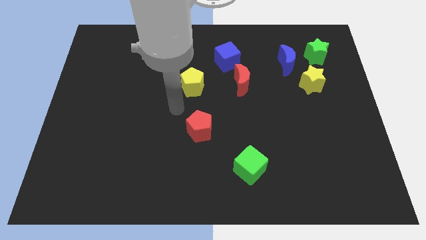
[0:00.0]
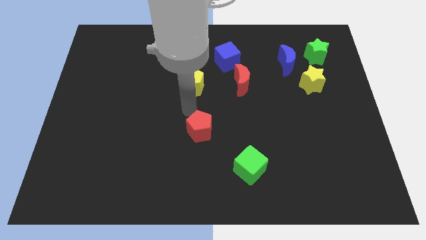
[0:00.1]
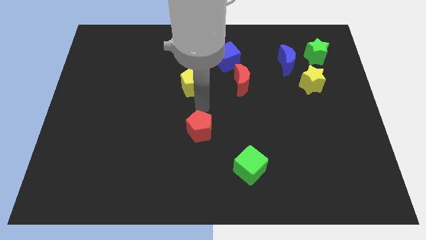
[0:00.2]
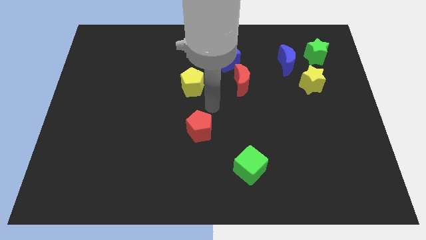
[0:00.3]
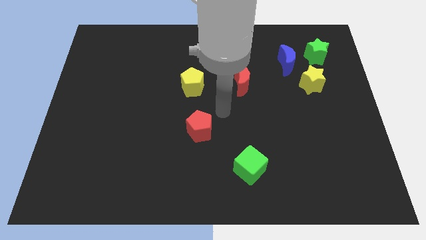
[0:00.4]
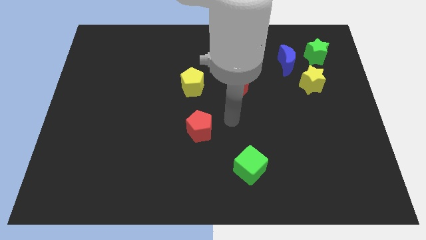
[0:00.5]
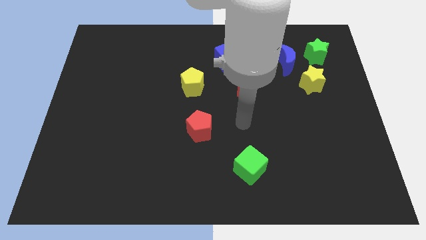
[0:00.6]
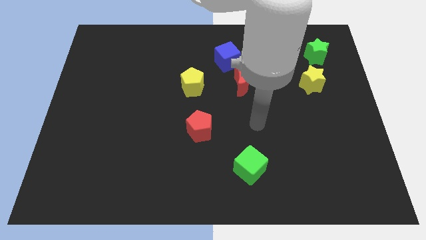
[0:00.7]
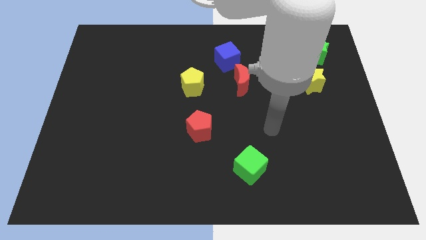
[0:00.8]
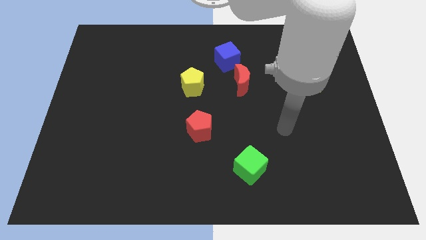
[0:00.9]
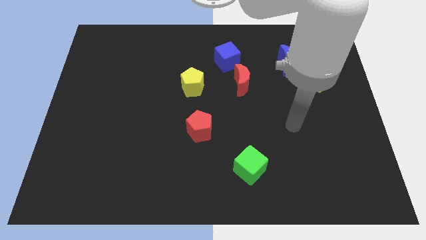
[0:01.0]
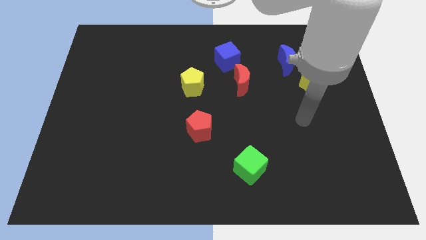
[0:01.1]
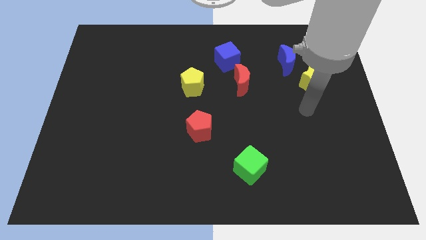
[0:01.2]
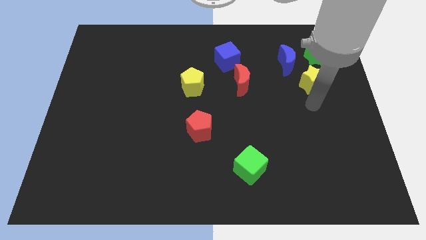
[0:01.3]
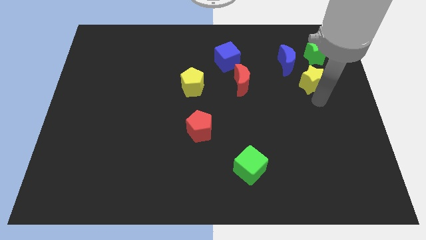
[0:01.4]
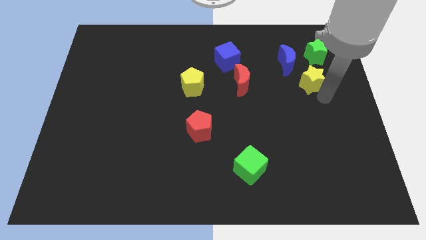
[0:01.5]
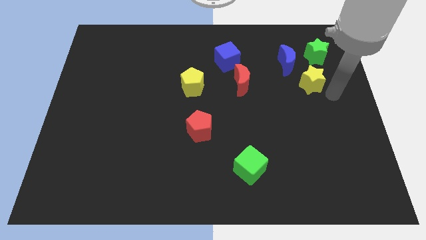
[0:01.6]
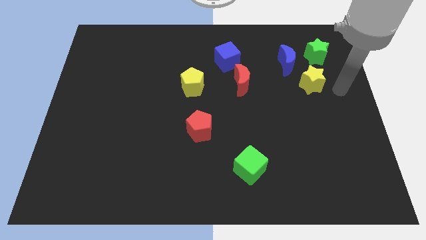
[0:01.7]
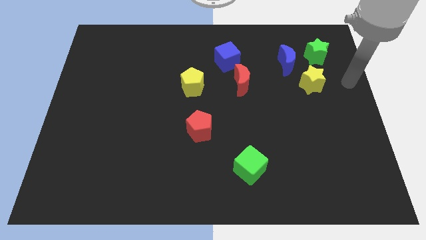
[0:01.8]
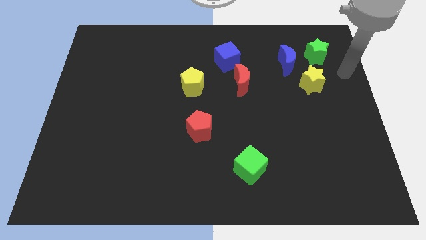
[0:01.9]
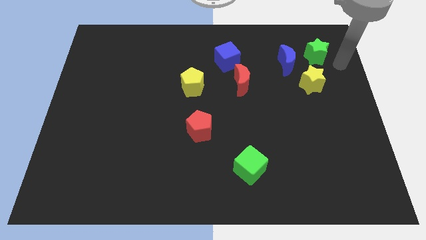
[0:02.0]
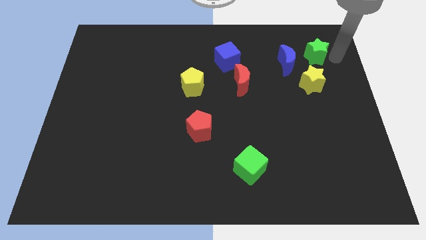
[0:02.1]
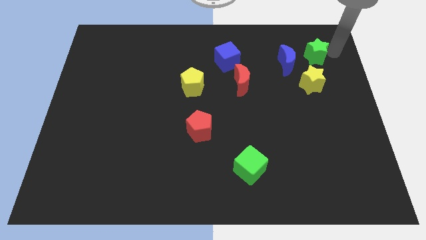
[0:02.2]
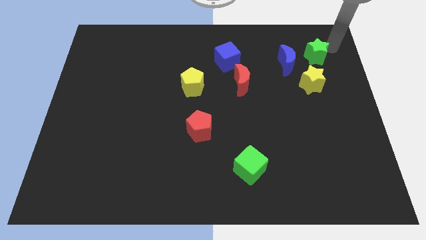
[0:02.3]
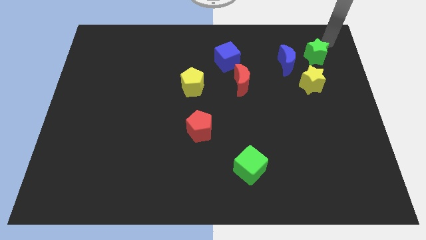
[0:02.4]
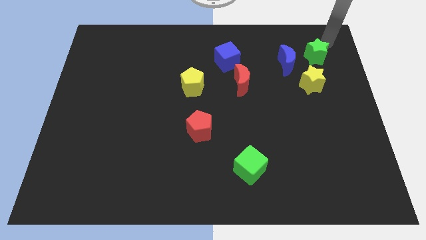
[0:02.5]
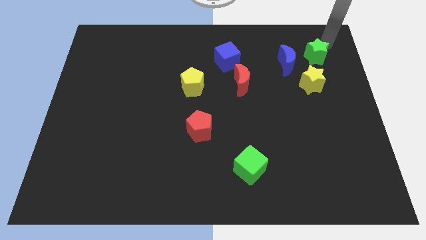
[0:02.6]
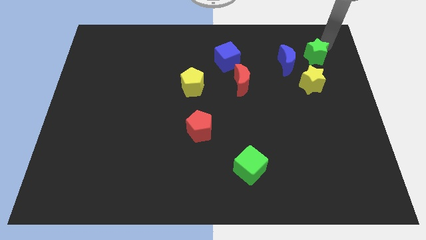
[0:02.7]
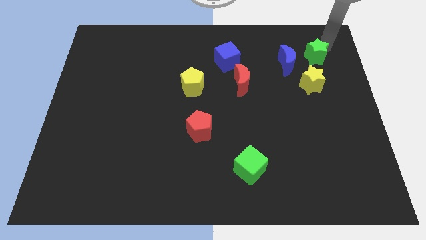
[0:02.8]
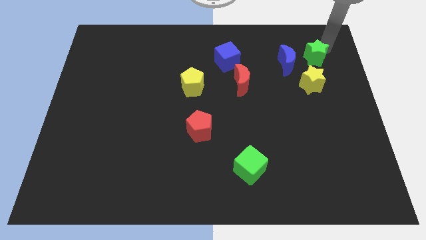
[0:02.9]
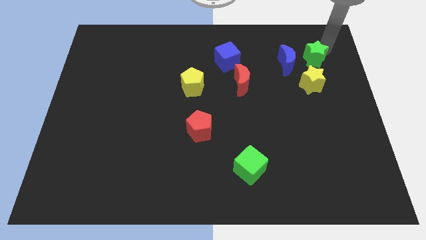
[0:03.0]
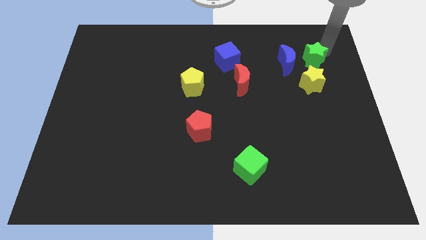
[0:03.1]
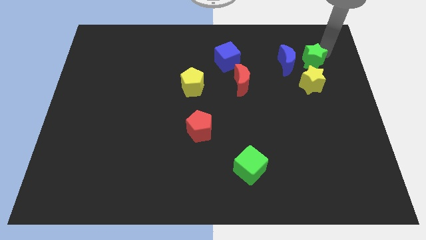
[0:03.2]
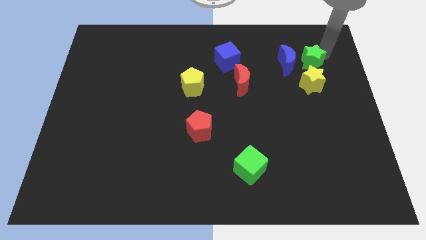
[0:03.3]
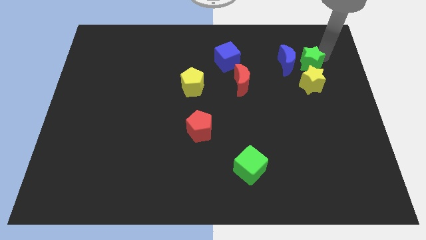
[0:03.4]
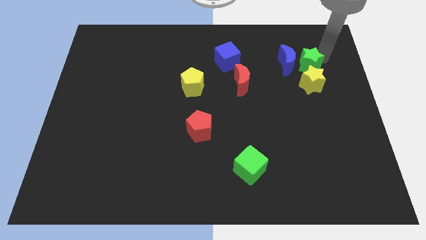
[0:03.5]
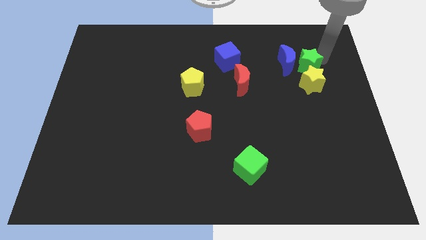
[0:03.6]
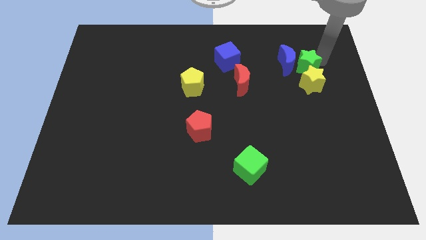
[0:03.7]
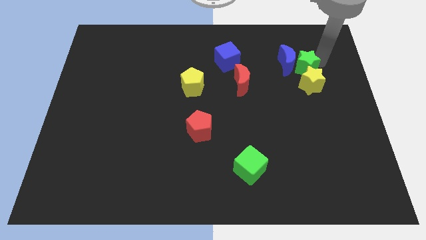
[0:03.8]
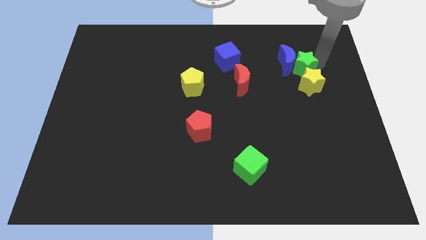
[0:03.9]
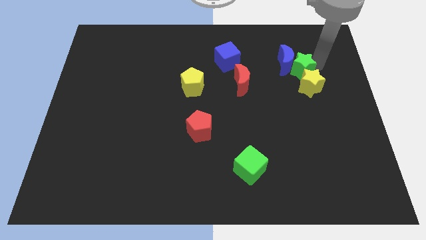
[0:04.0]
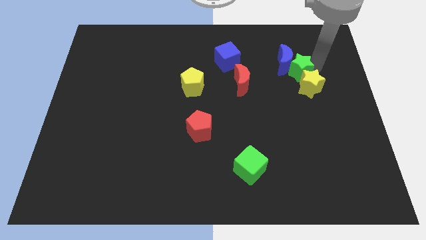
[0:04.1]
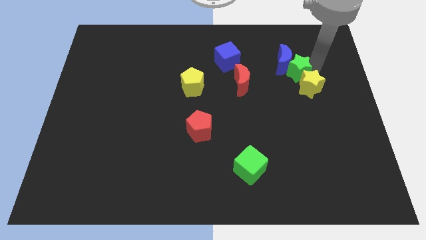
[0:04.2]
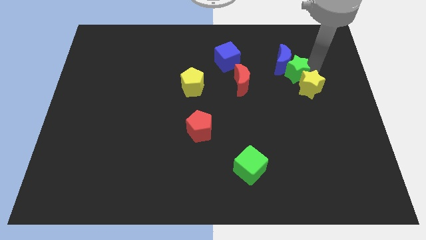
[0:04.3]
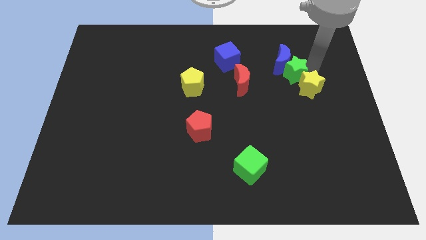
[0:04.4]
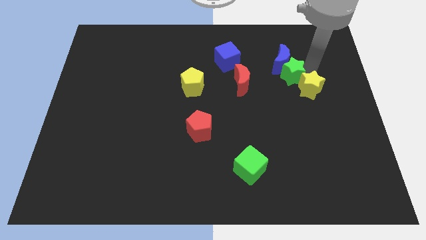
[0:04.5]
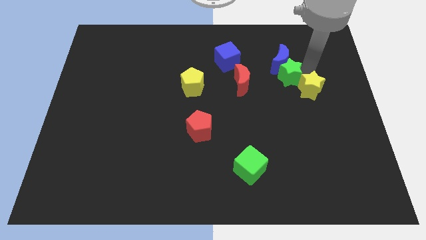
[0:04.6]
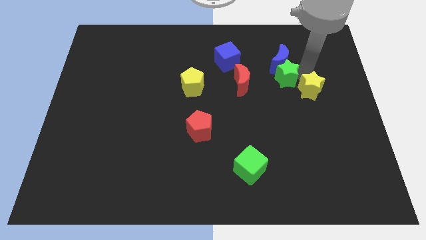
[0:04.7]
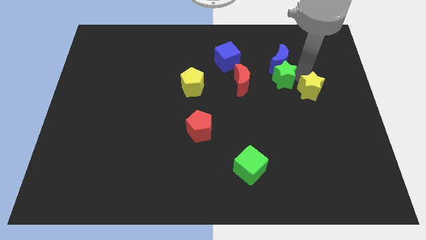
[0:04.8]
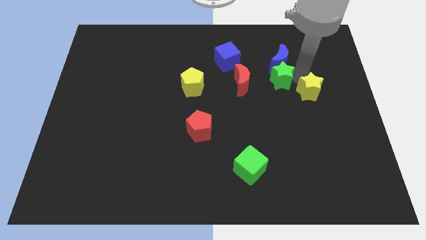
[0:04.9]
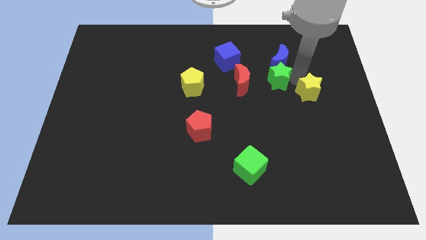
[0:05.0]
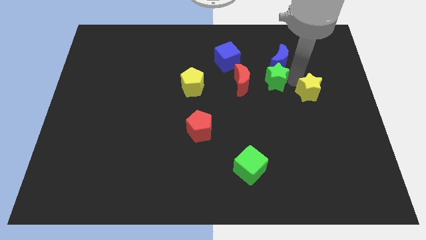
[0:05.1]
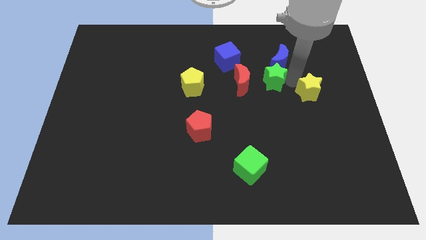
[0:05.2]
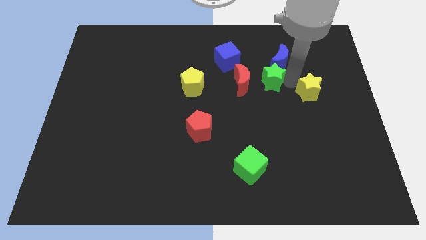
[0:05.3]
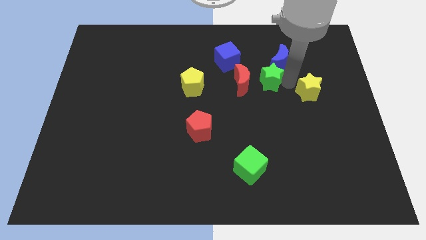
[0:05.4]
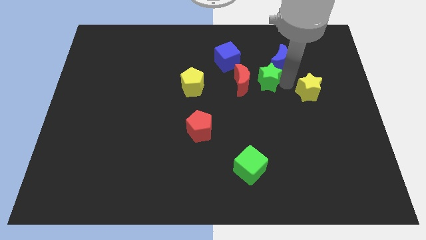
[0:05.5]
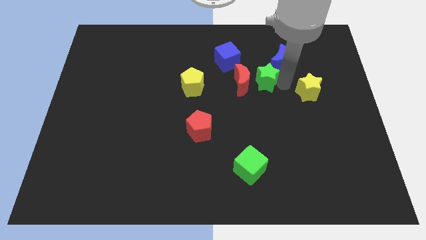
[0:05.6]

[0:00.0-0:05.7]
move the green star close to the red moon

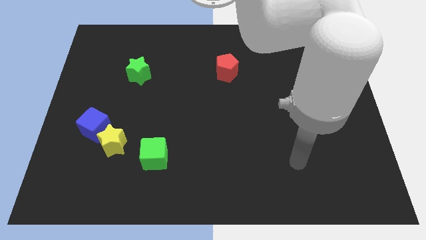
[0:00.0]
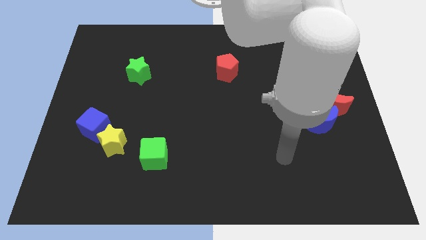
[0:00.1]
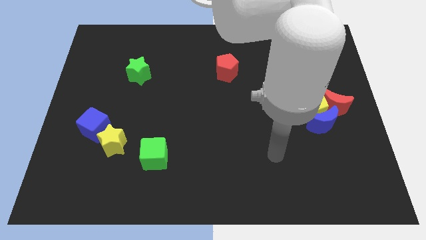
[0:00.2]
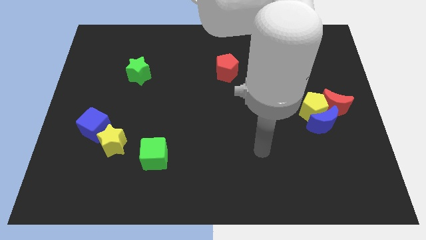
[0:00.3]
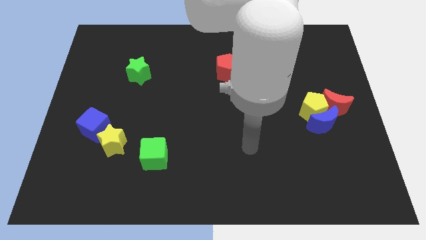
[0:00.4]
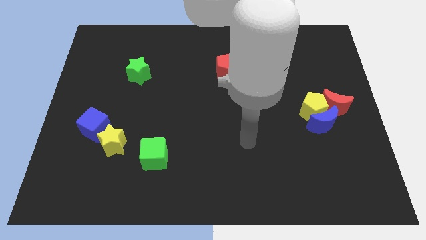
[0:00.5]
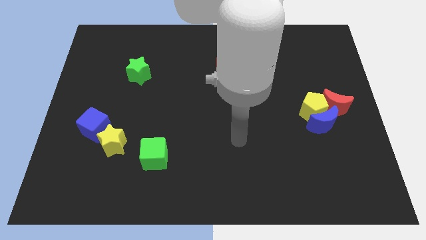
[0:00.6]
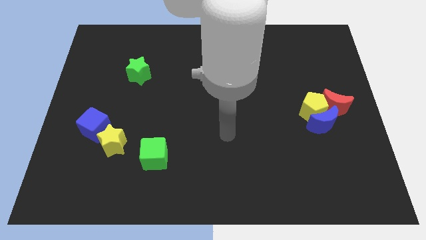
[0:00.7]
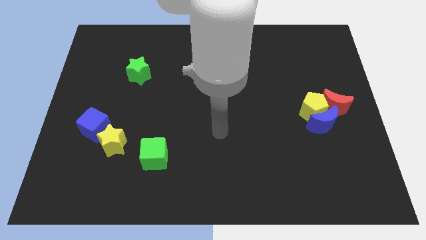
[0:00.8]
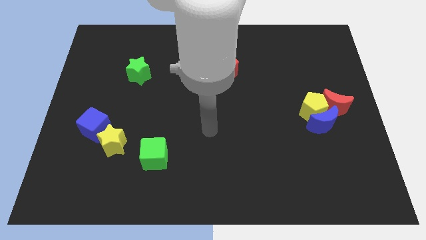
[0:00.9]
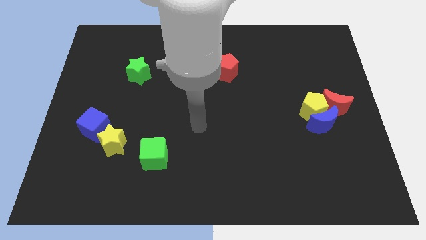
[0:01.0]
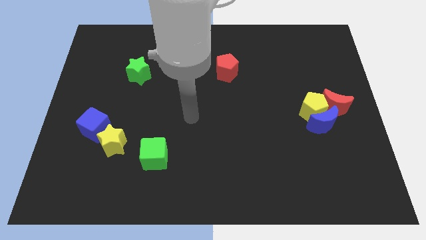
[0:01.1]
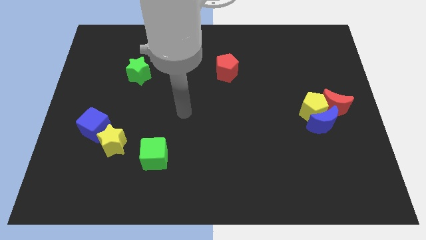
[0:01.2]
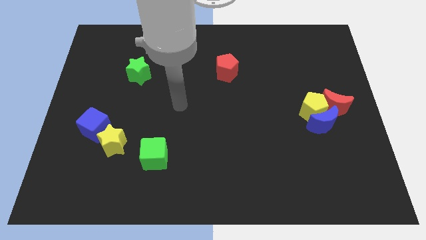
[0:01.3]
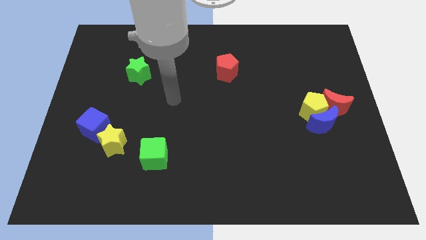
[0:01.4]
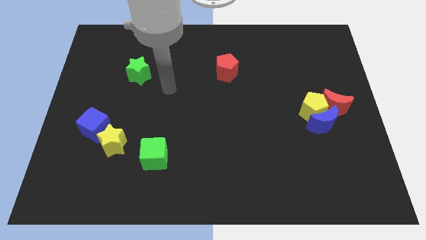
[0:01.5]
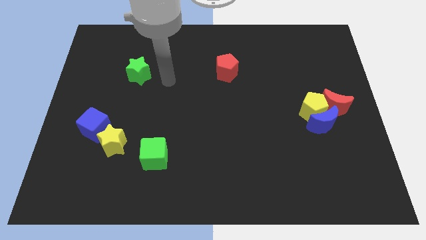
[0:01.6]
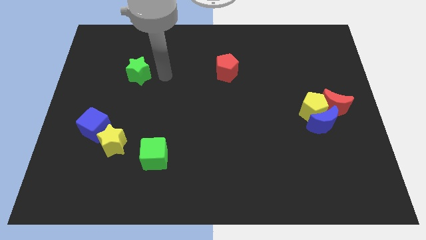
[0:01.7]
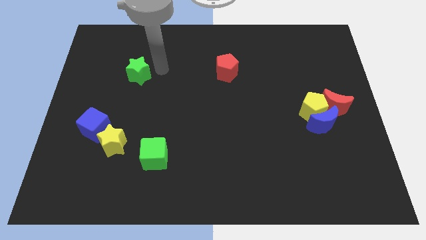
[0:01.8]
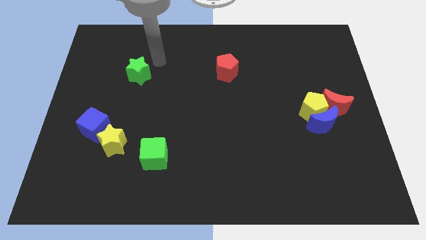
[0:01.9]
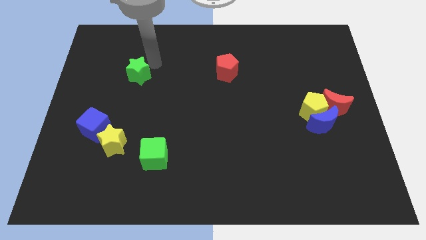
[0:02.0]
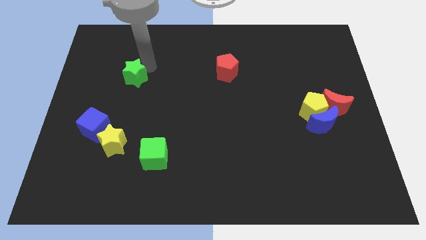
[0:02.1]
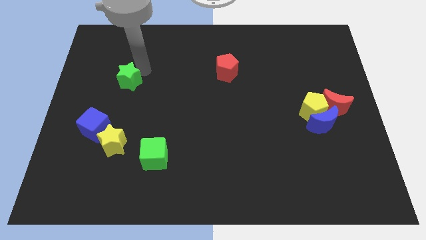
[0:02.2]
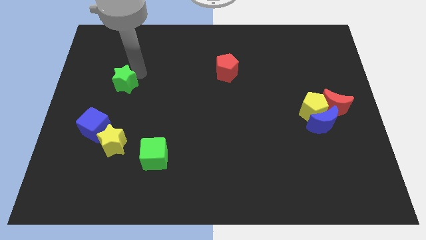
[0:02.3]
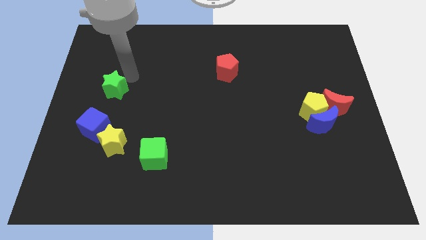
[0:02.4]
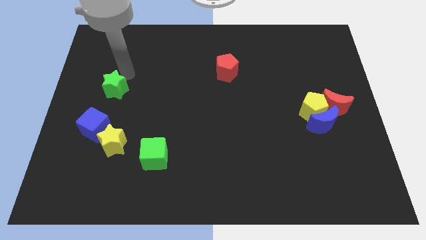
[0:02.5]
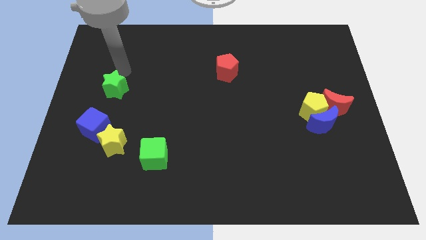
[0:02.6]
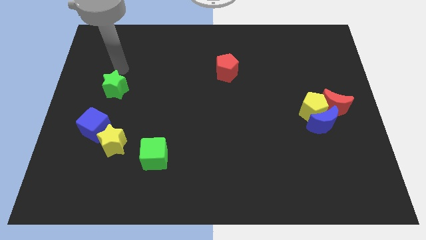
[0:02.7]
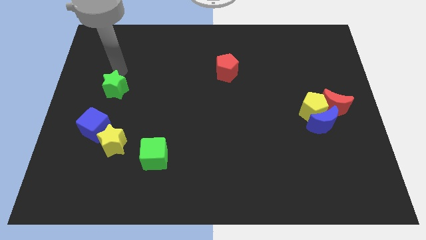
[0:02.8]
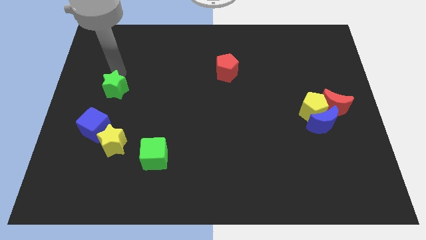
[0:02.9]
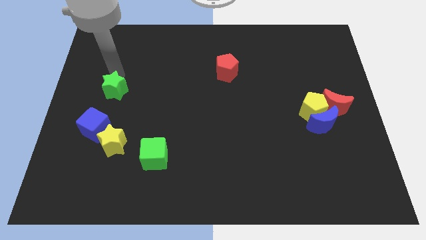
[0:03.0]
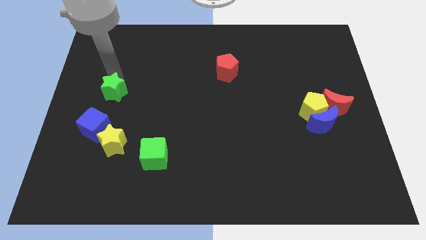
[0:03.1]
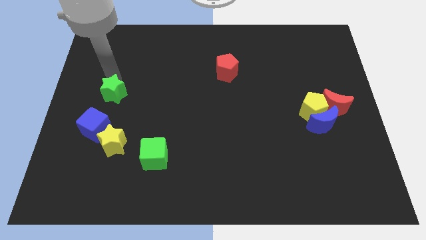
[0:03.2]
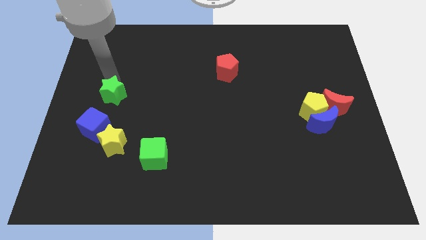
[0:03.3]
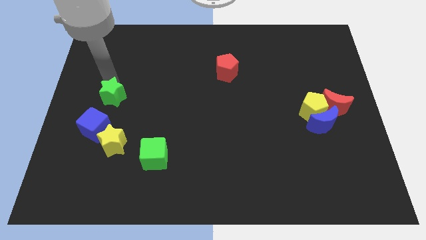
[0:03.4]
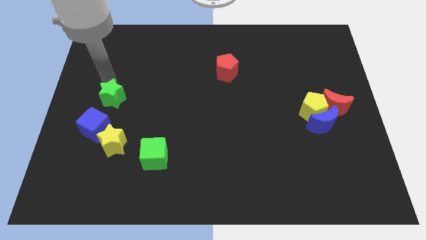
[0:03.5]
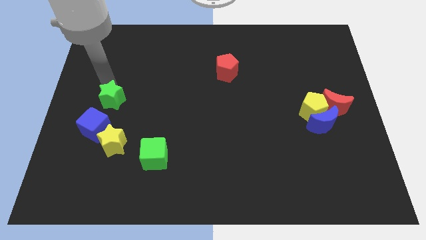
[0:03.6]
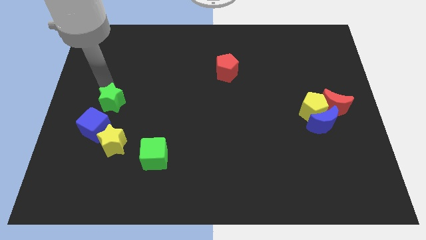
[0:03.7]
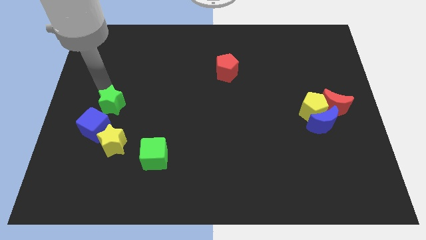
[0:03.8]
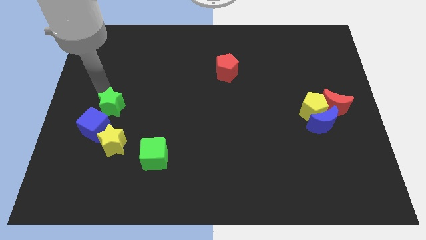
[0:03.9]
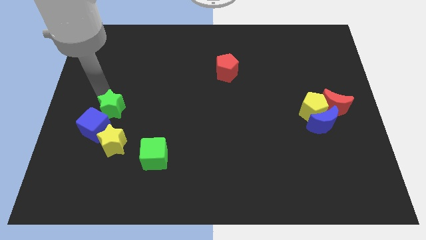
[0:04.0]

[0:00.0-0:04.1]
slide the green star to the blue cube
